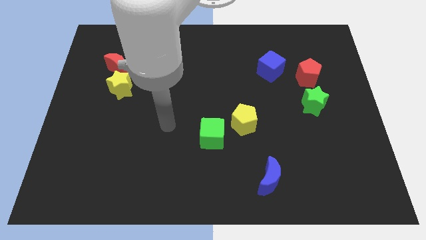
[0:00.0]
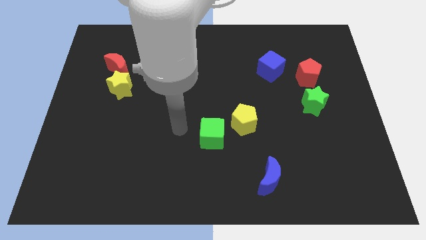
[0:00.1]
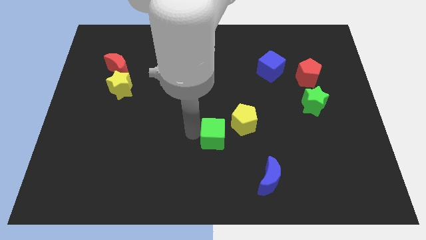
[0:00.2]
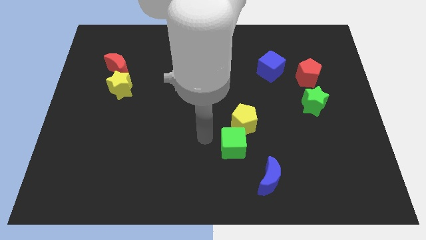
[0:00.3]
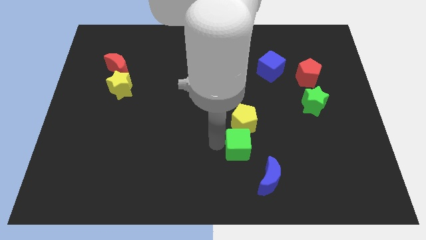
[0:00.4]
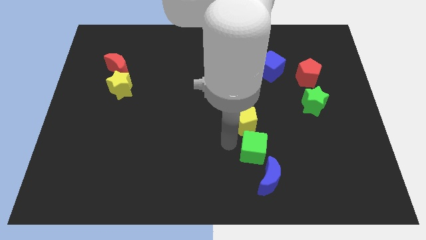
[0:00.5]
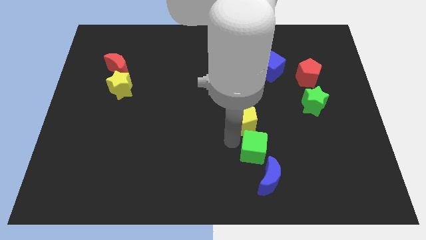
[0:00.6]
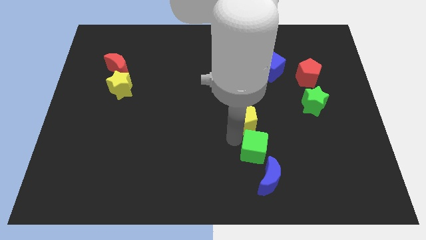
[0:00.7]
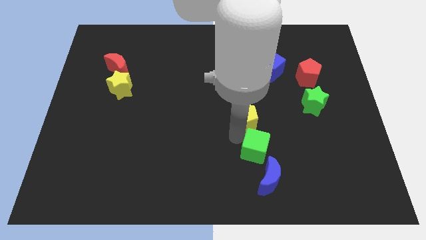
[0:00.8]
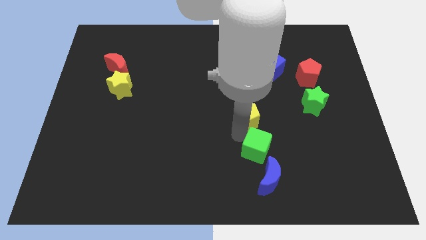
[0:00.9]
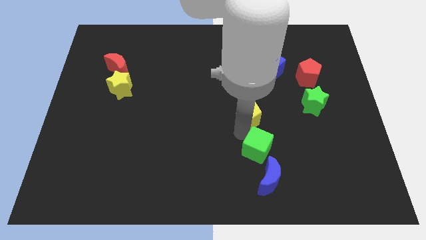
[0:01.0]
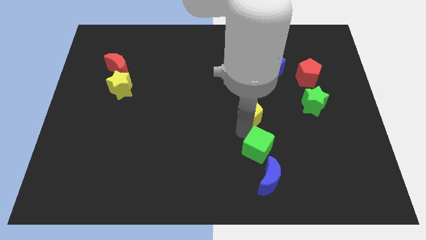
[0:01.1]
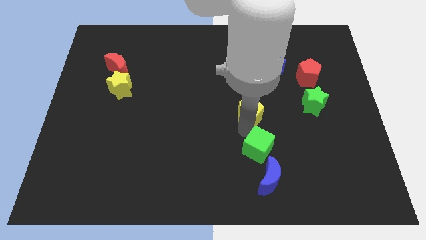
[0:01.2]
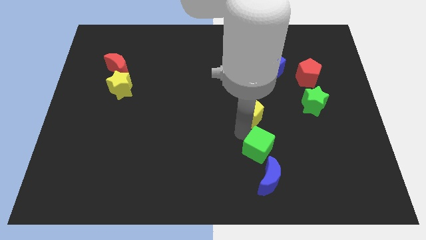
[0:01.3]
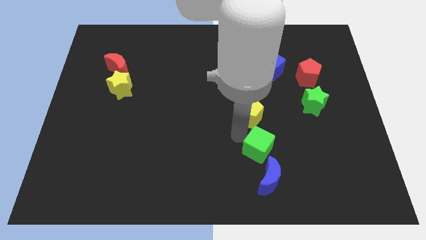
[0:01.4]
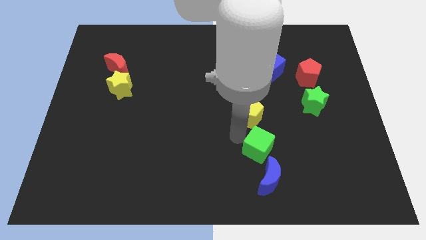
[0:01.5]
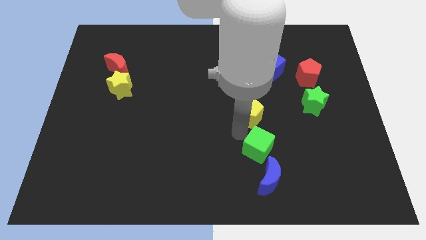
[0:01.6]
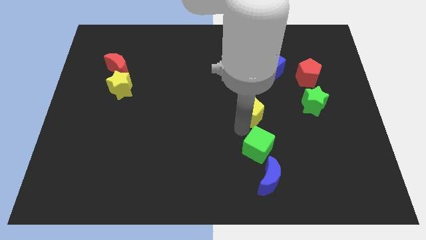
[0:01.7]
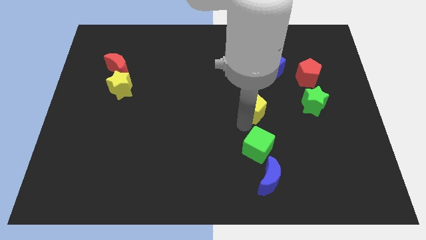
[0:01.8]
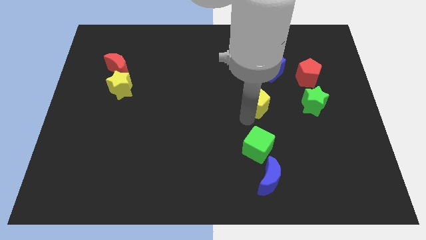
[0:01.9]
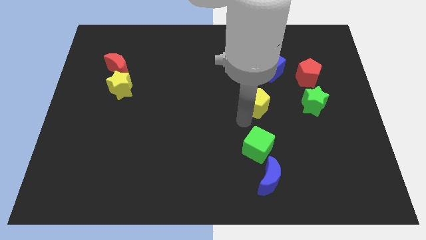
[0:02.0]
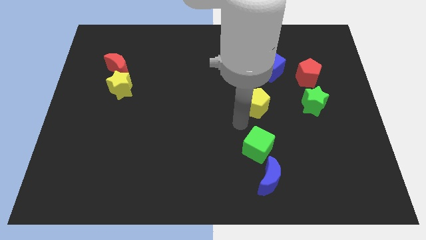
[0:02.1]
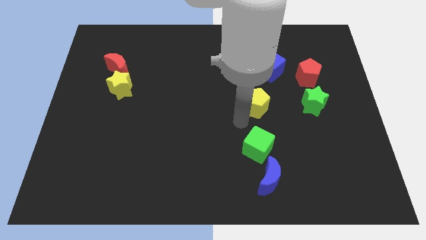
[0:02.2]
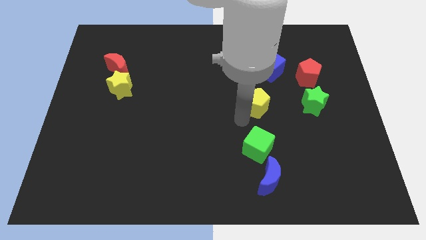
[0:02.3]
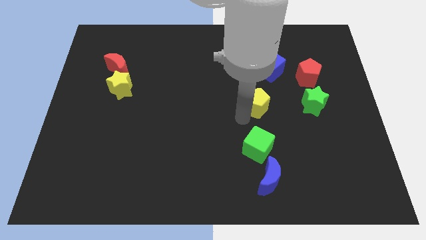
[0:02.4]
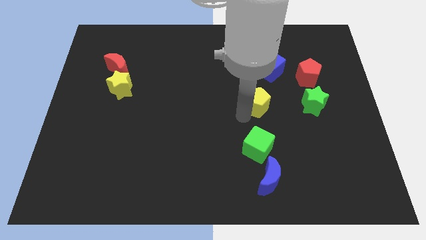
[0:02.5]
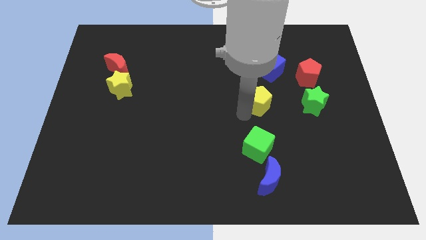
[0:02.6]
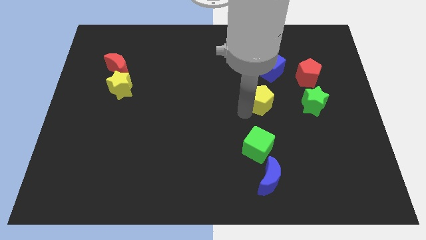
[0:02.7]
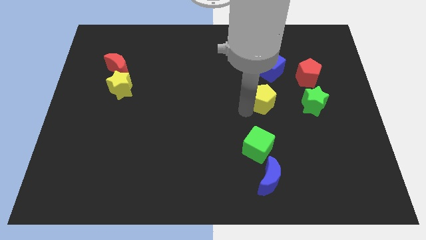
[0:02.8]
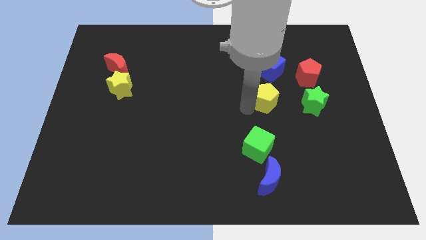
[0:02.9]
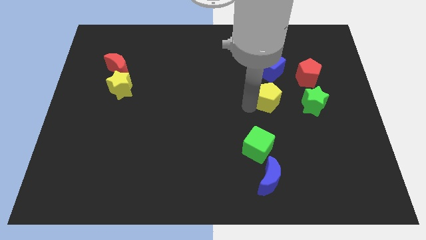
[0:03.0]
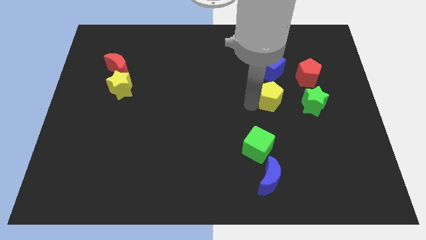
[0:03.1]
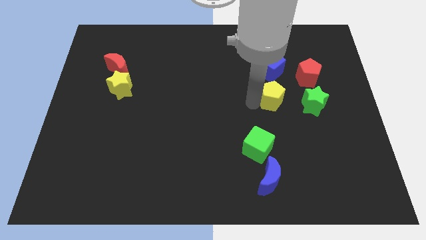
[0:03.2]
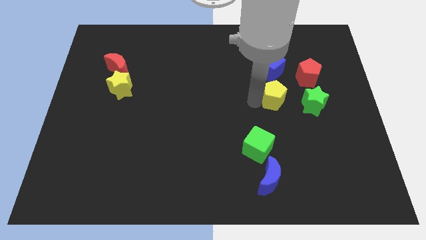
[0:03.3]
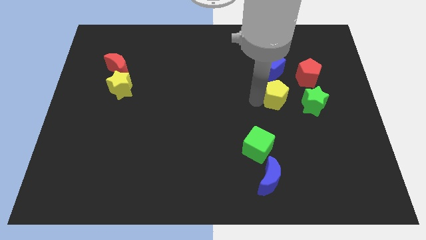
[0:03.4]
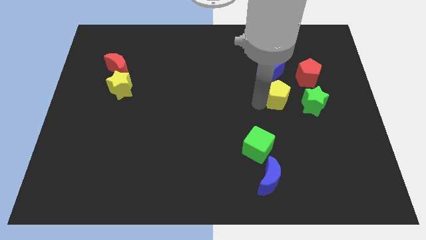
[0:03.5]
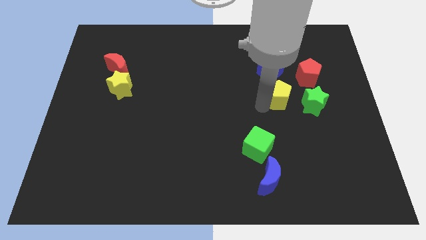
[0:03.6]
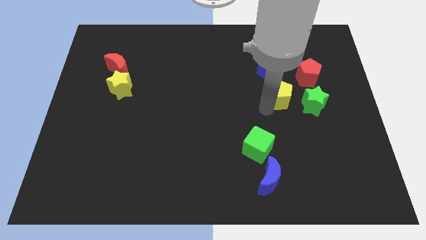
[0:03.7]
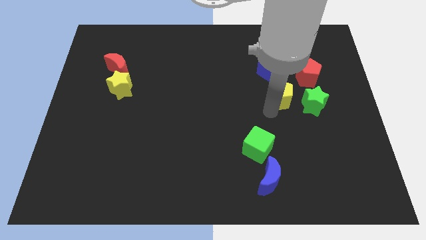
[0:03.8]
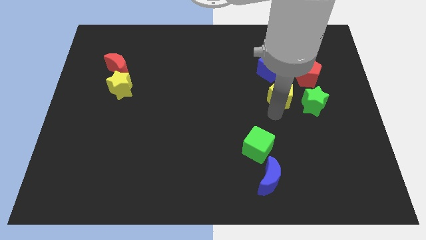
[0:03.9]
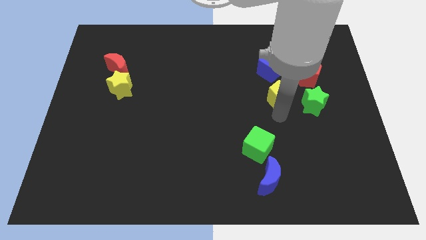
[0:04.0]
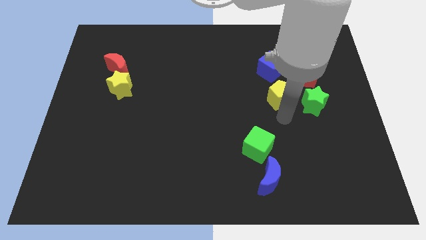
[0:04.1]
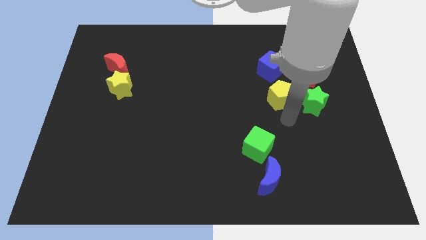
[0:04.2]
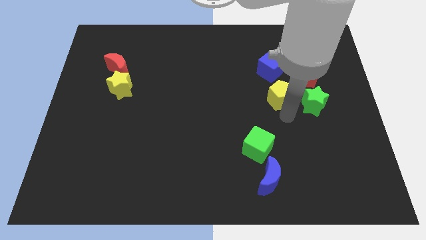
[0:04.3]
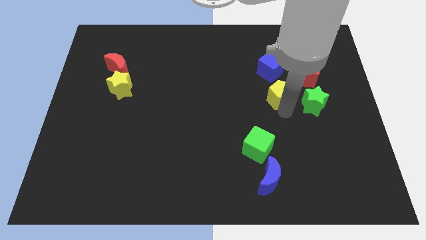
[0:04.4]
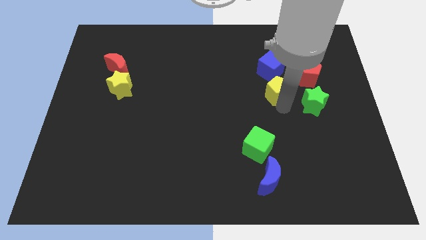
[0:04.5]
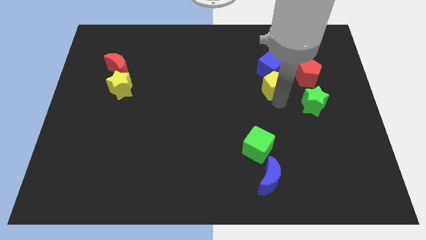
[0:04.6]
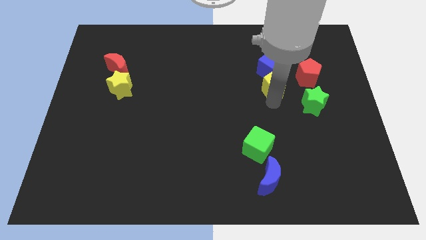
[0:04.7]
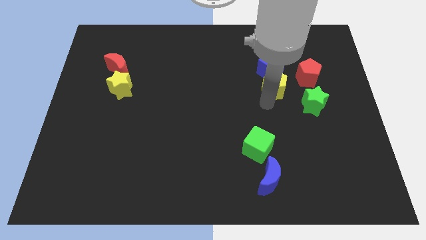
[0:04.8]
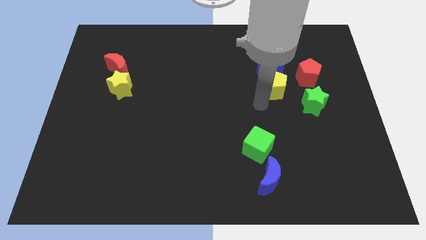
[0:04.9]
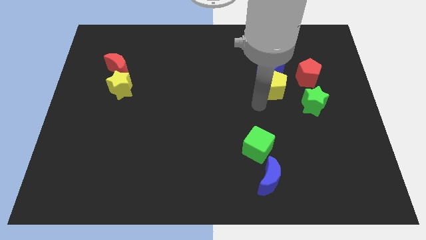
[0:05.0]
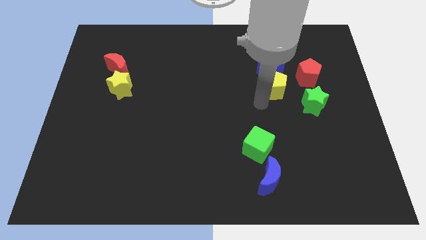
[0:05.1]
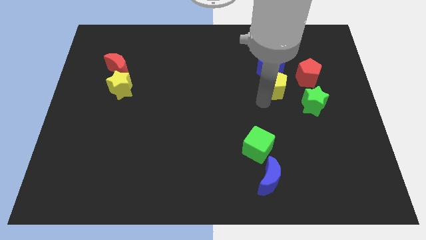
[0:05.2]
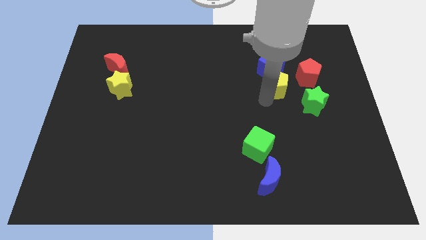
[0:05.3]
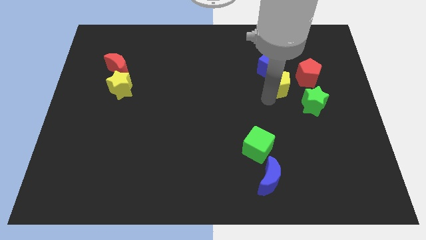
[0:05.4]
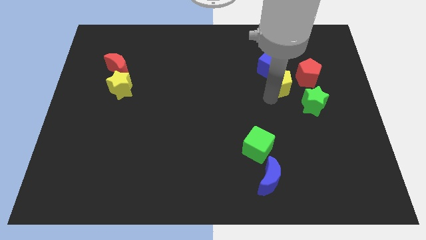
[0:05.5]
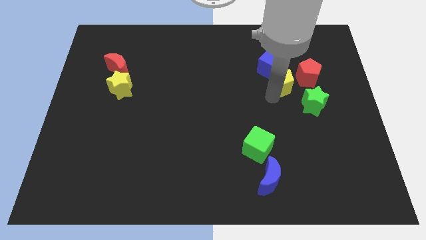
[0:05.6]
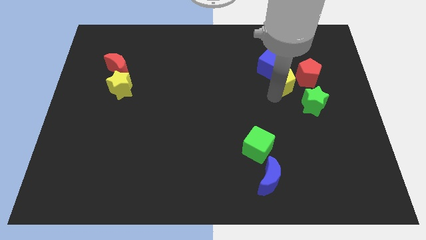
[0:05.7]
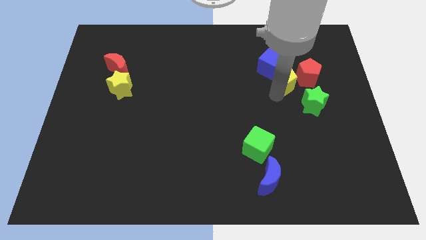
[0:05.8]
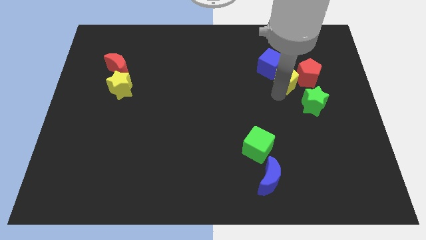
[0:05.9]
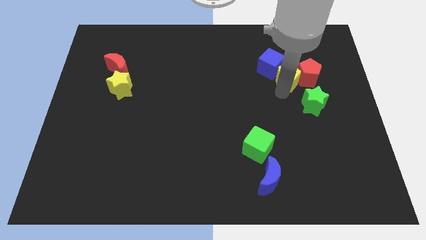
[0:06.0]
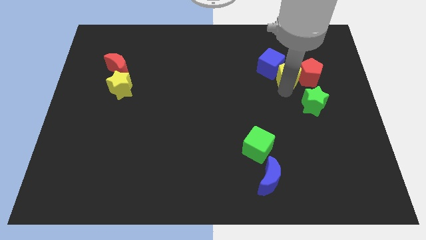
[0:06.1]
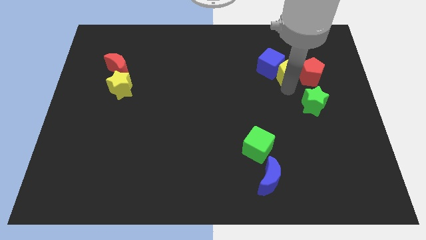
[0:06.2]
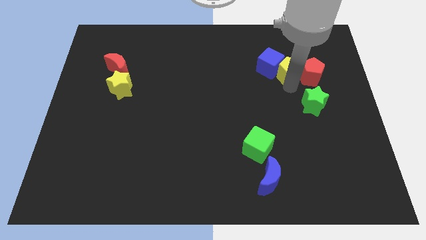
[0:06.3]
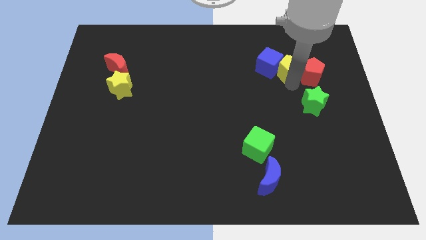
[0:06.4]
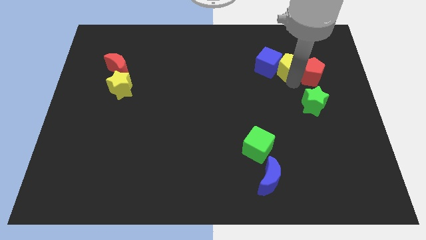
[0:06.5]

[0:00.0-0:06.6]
slide the yellow pentagon to the top right of the blue cube

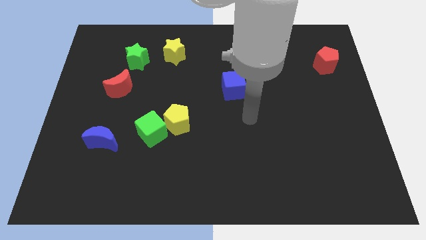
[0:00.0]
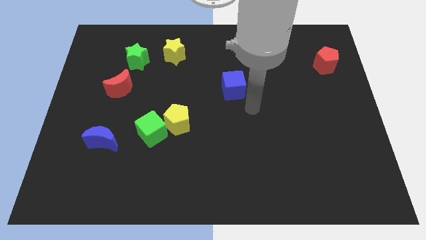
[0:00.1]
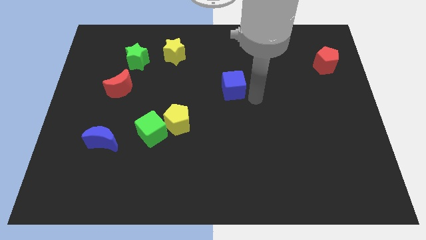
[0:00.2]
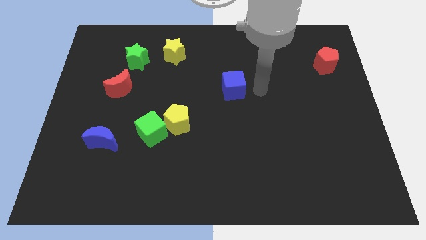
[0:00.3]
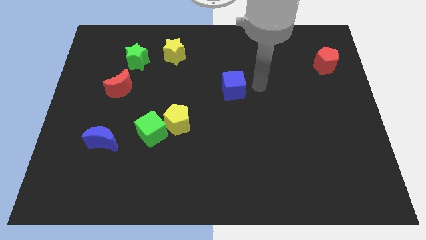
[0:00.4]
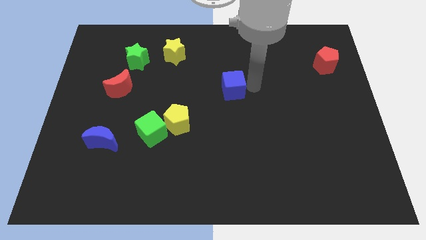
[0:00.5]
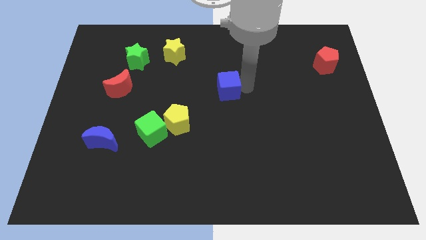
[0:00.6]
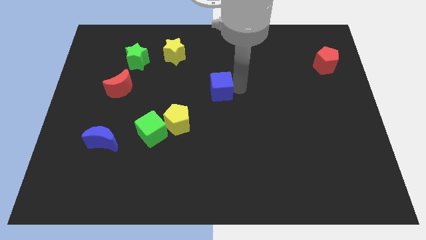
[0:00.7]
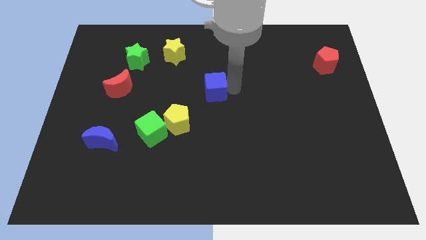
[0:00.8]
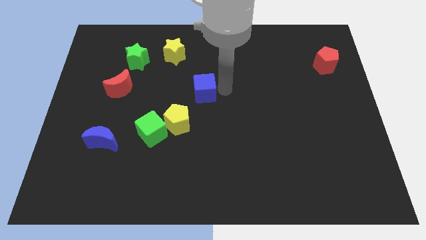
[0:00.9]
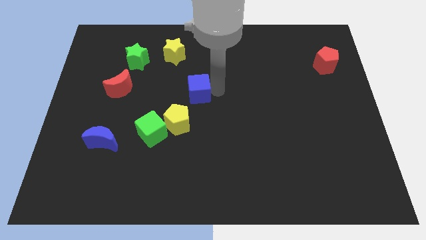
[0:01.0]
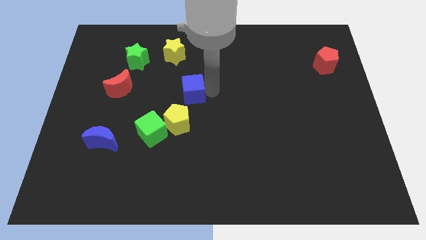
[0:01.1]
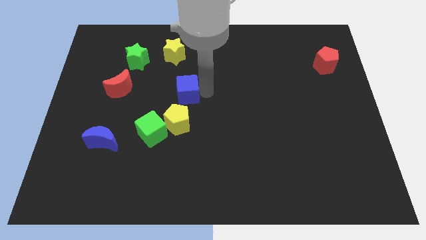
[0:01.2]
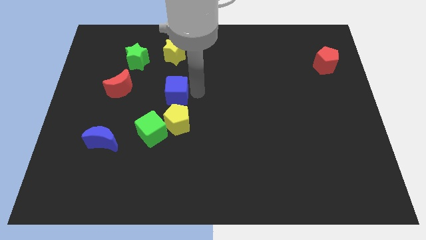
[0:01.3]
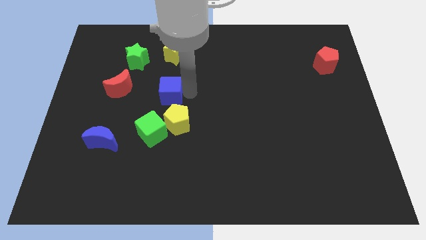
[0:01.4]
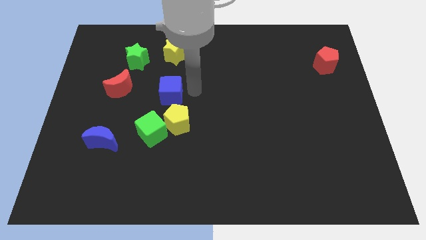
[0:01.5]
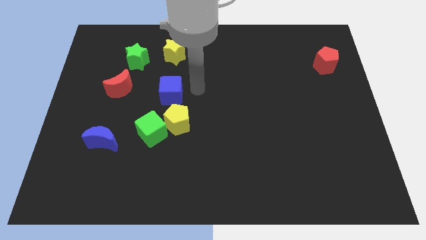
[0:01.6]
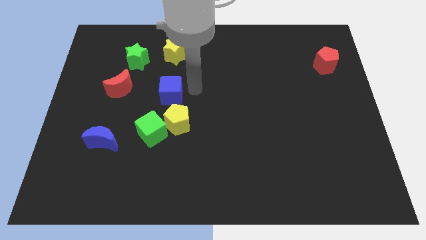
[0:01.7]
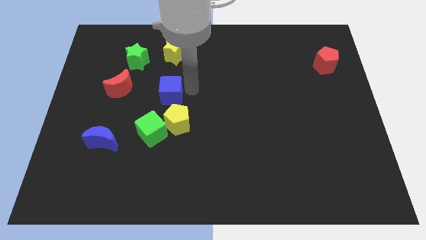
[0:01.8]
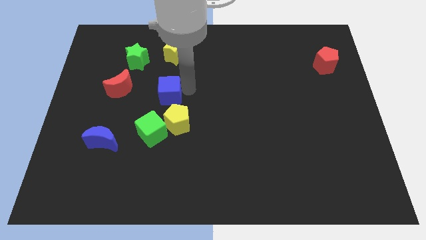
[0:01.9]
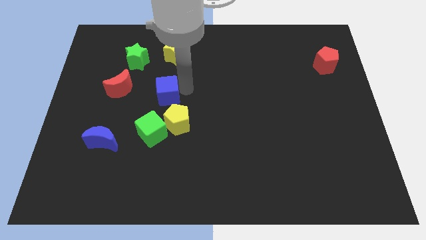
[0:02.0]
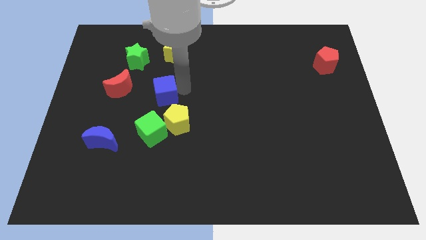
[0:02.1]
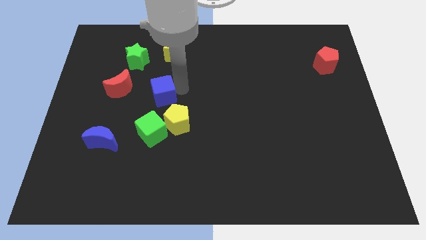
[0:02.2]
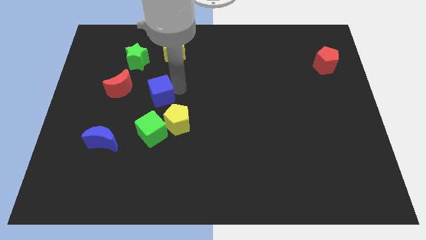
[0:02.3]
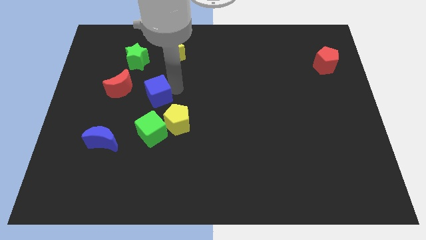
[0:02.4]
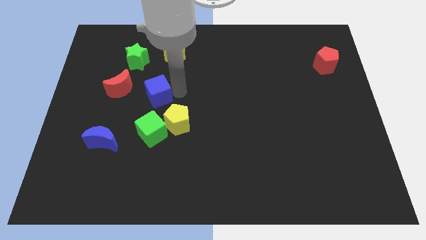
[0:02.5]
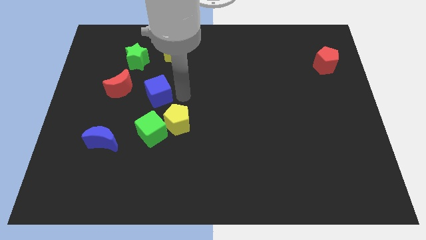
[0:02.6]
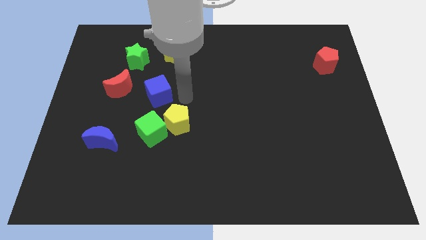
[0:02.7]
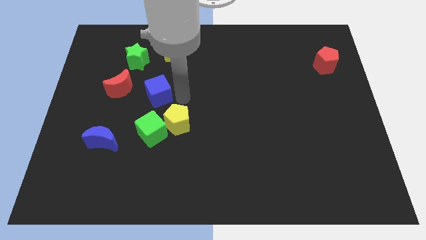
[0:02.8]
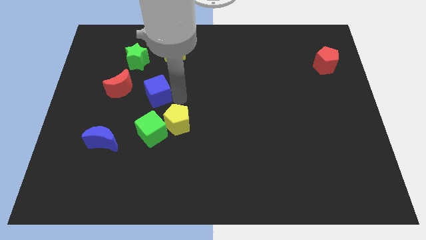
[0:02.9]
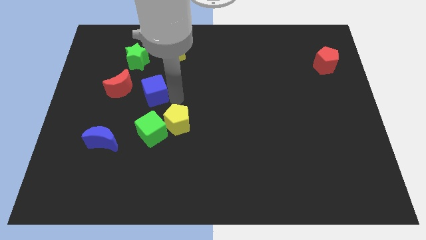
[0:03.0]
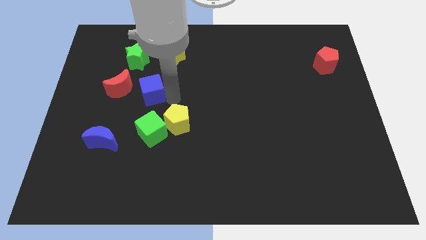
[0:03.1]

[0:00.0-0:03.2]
put the blue cube to the bottom side of the green star
